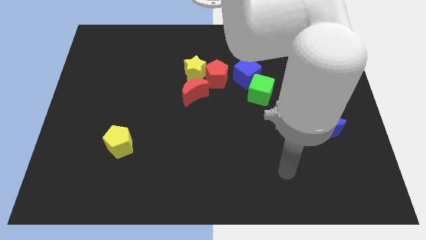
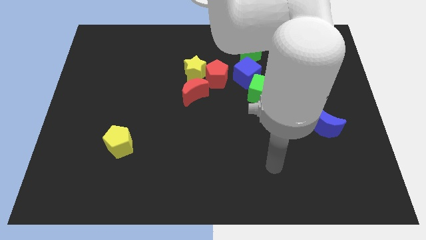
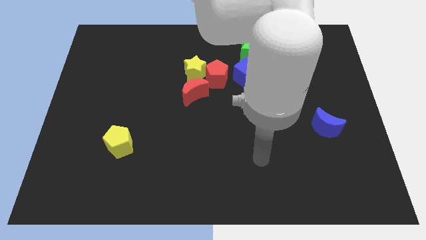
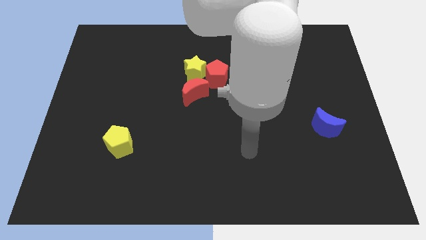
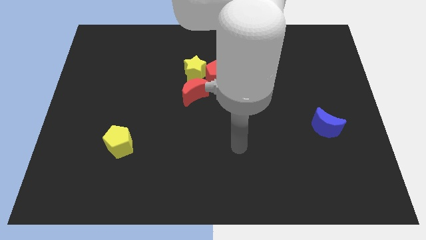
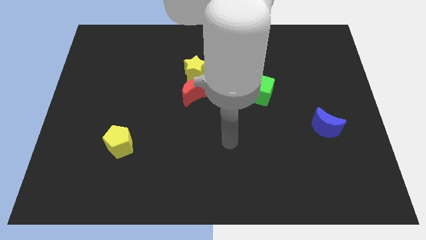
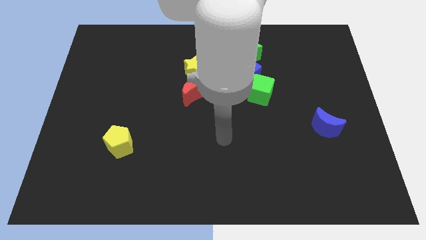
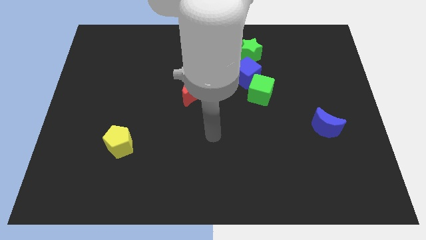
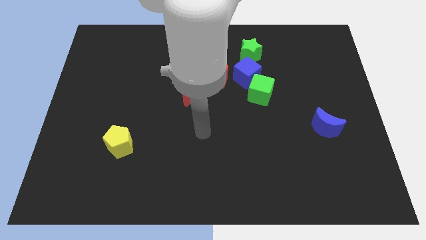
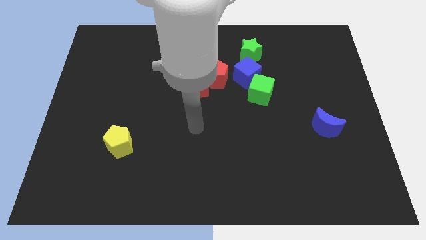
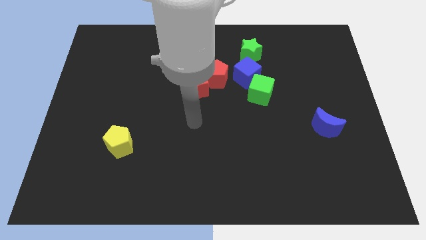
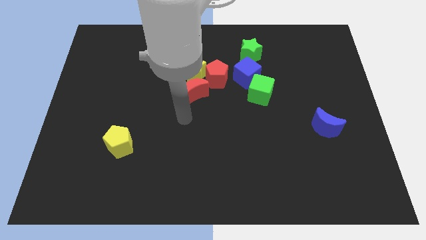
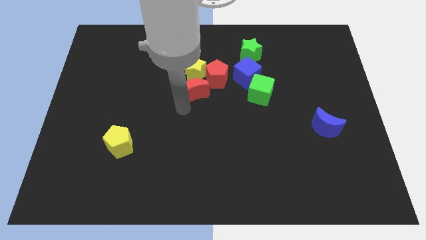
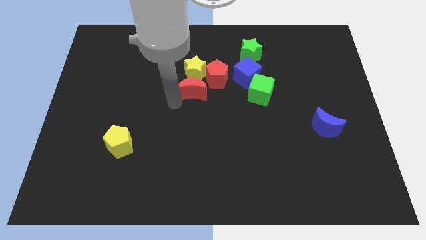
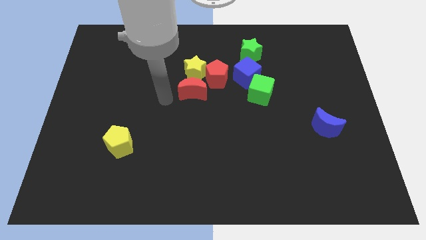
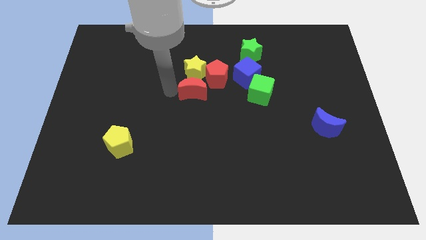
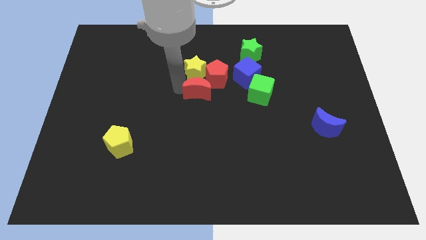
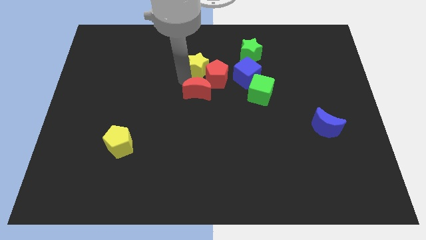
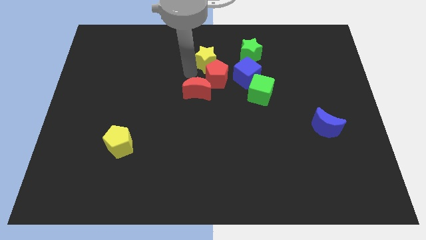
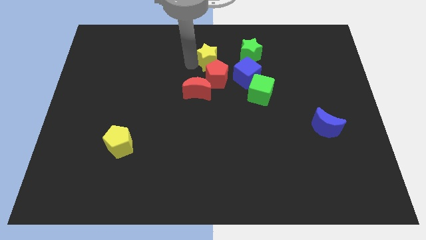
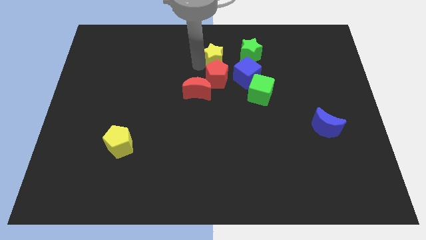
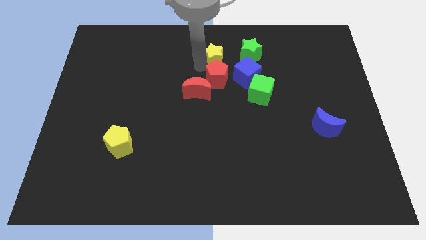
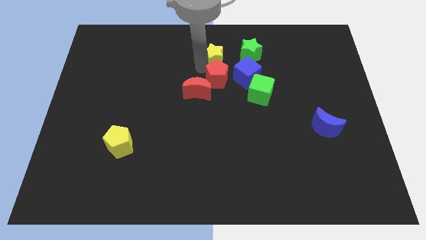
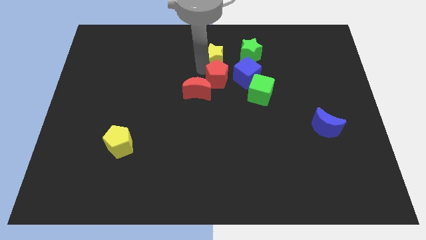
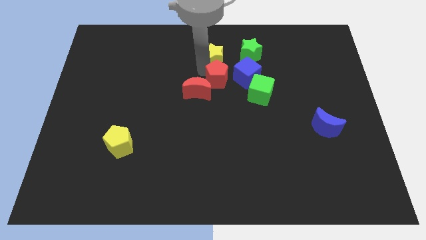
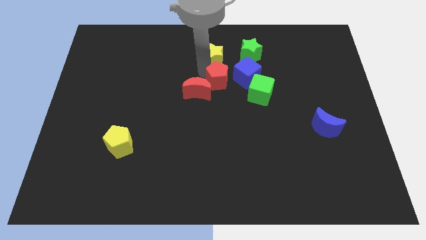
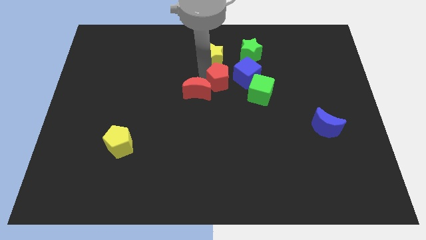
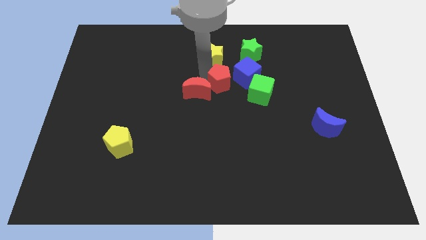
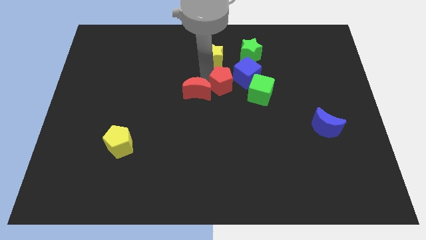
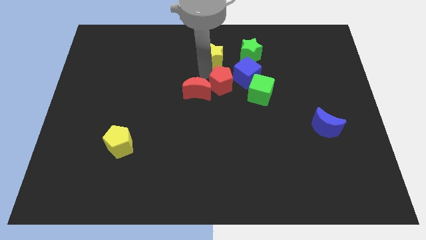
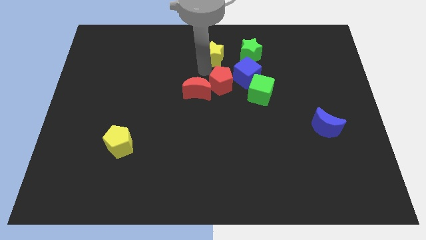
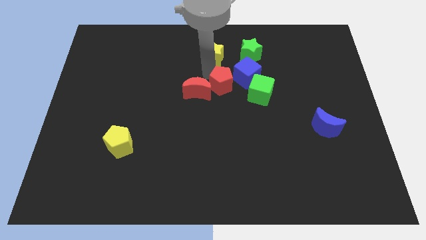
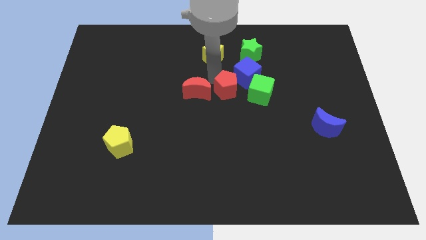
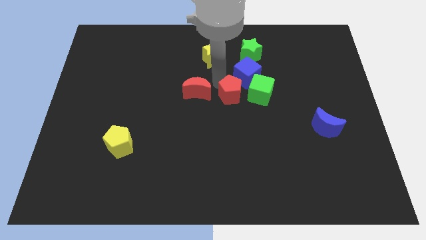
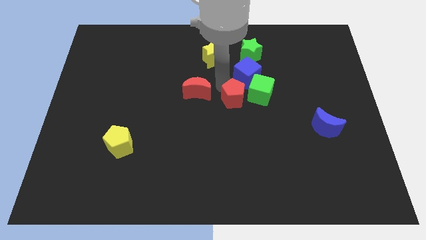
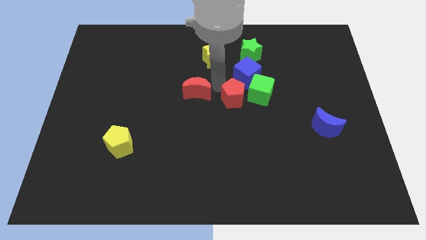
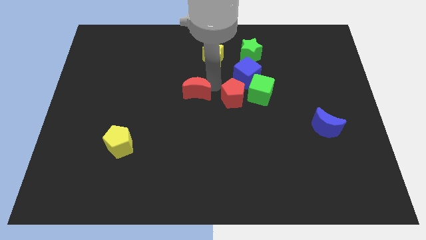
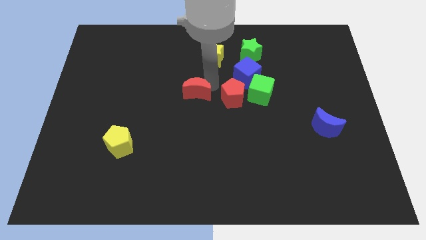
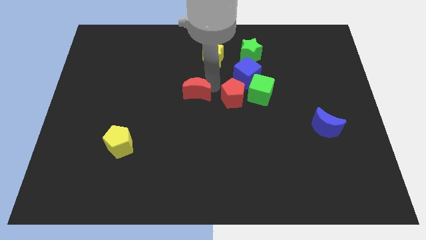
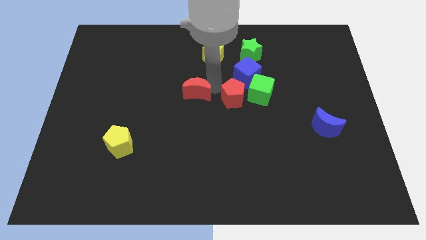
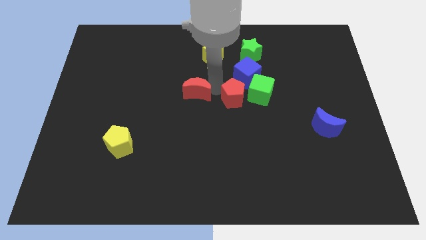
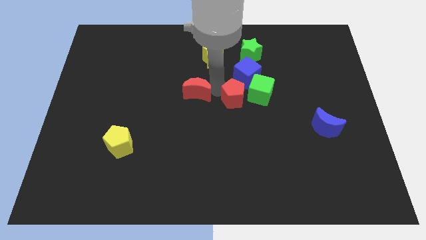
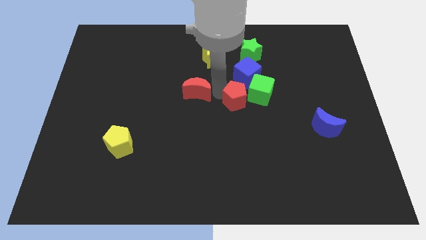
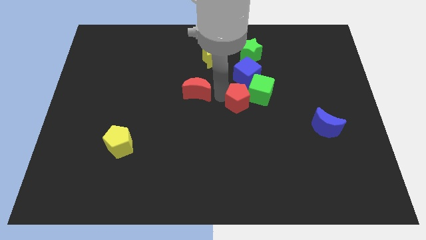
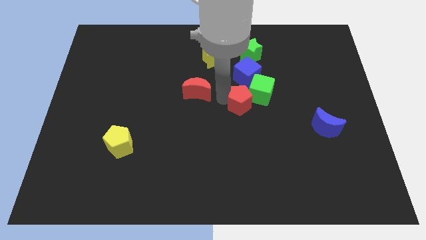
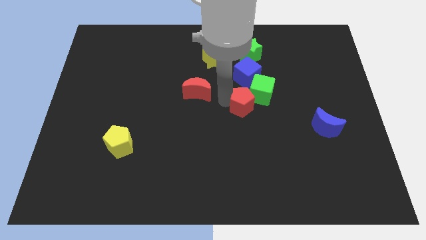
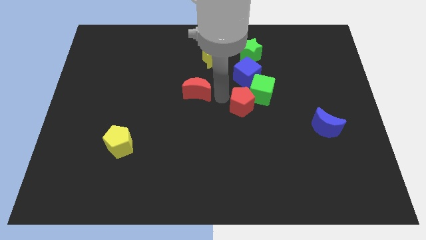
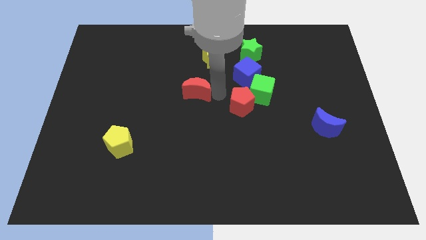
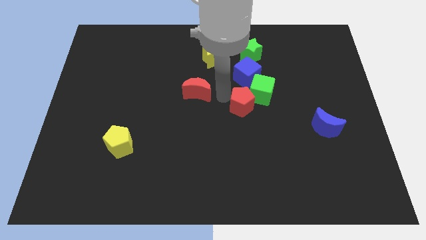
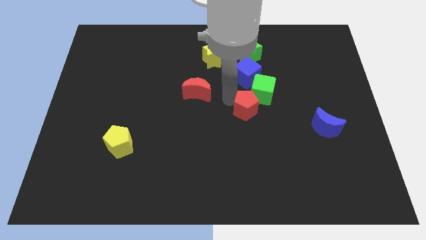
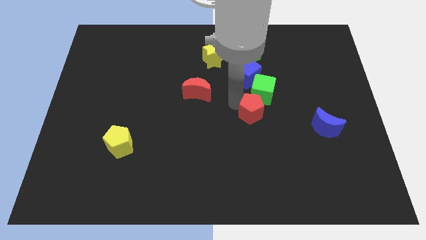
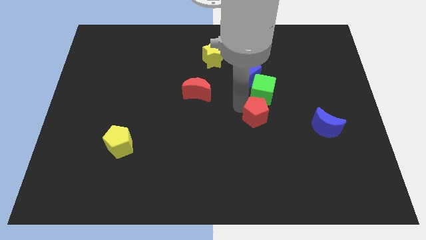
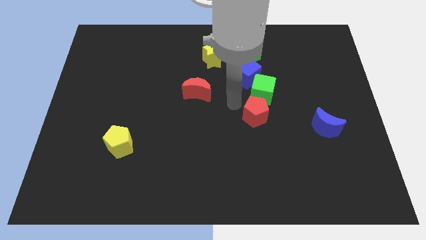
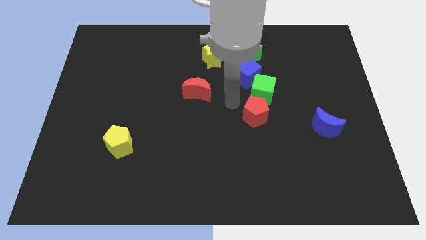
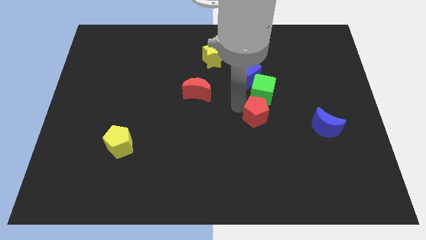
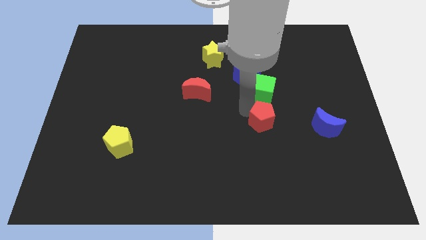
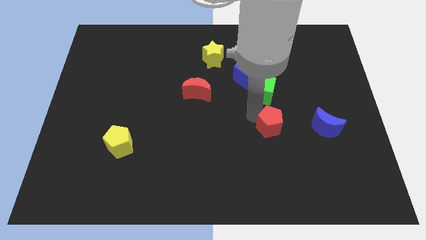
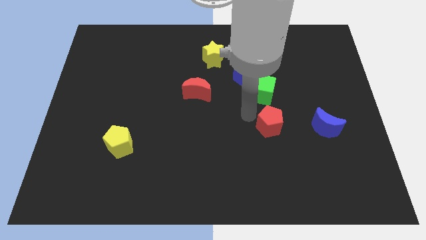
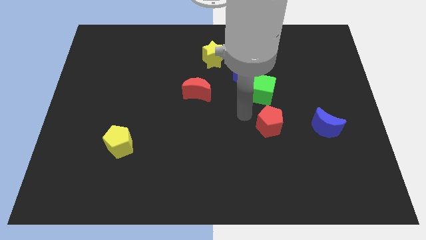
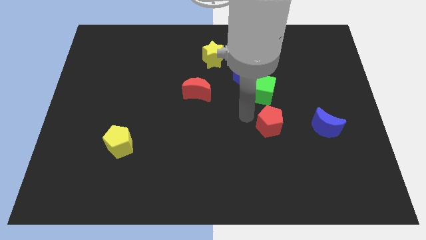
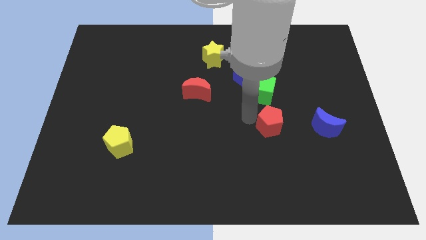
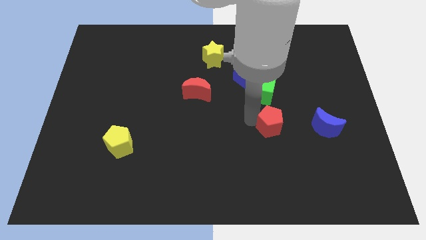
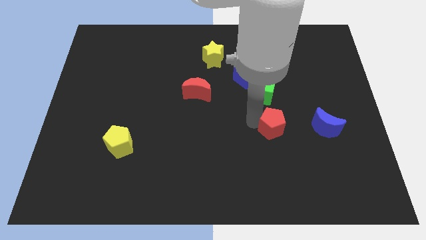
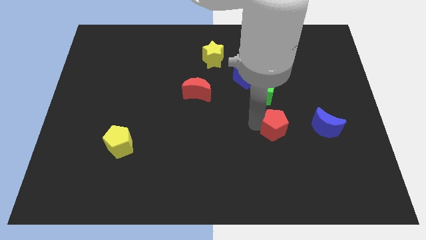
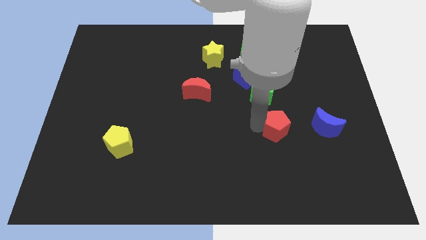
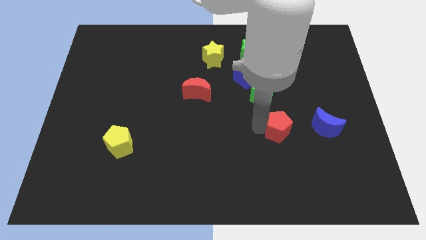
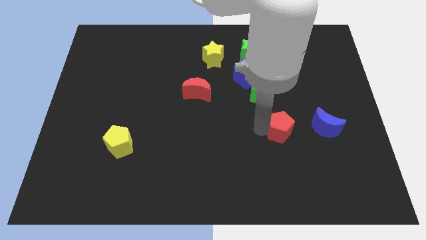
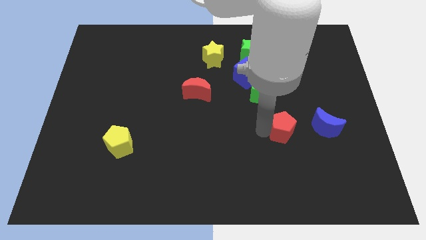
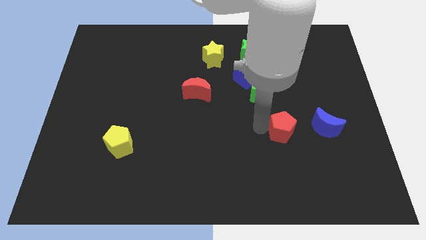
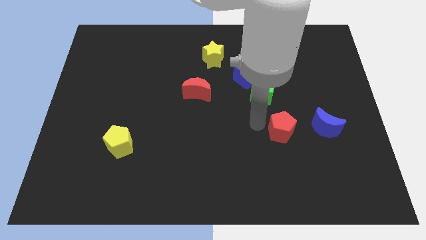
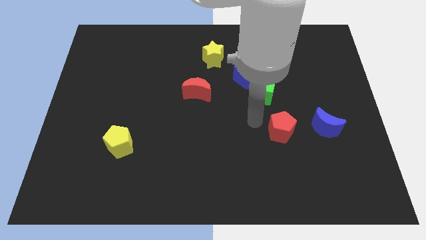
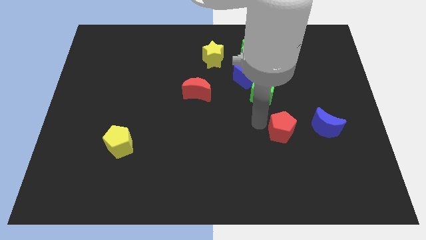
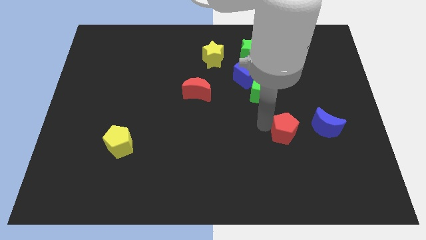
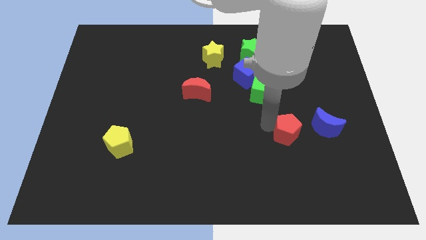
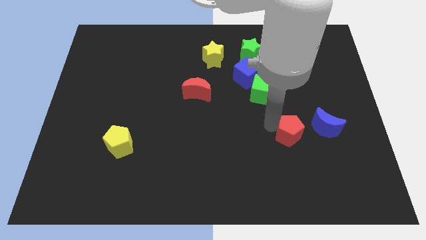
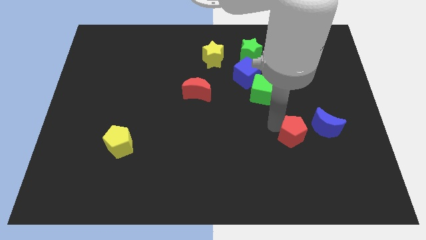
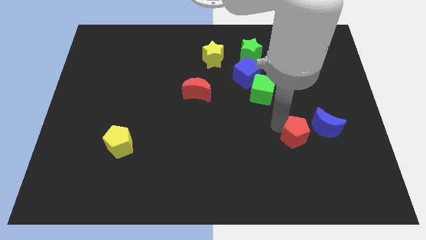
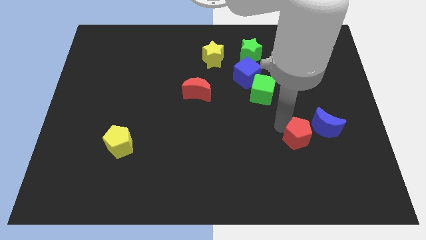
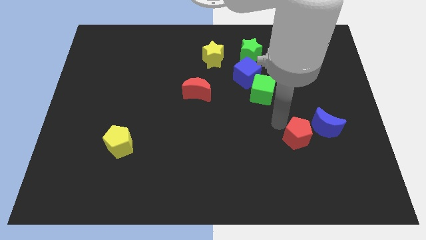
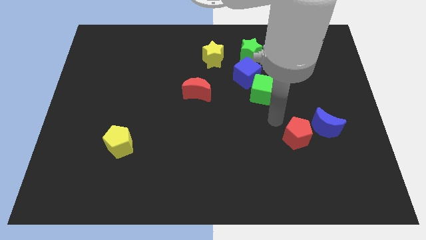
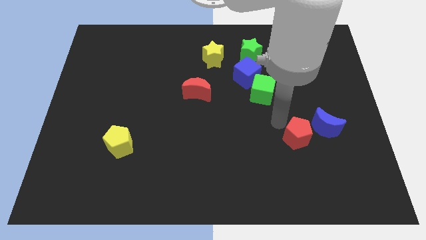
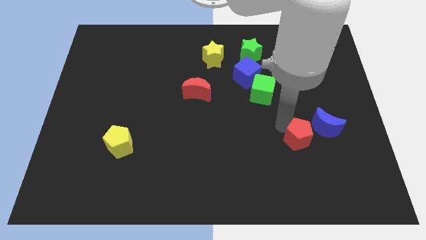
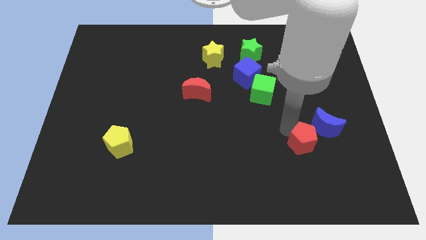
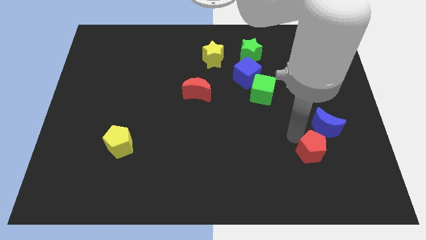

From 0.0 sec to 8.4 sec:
push the red pentagon to the bottom of the blue moon
